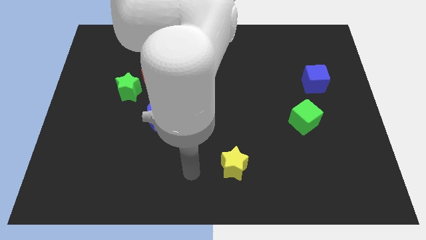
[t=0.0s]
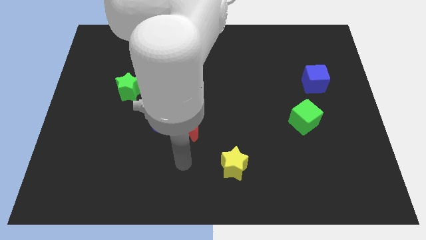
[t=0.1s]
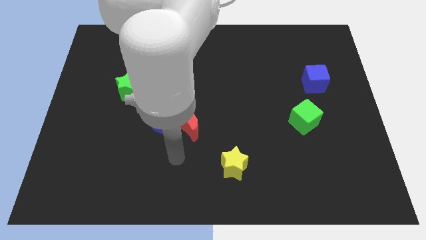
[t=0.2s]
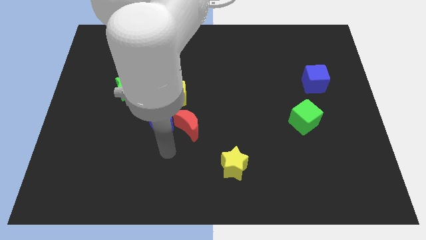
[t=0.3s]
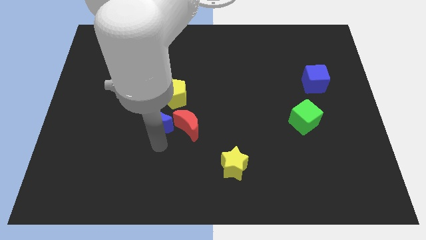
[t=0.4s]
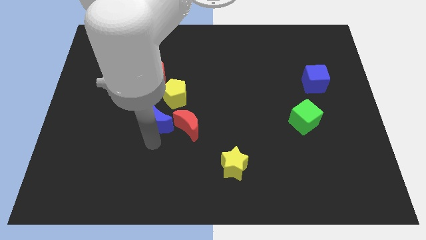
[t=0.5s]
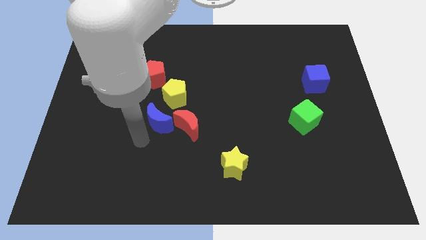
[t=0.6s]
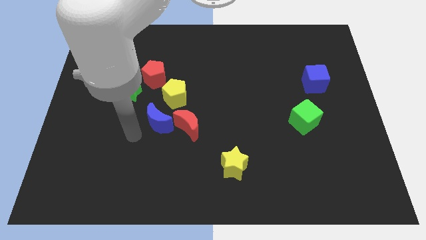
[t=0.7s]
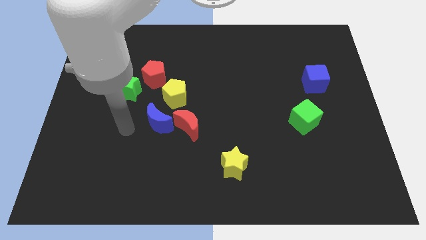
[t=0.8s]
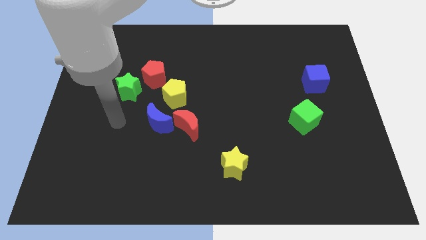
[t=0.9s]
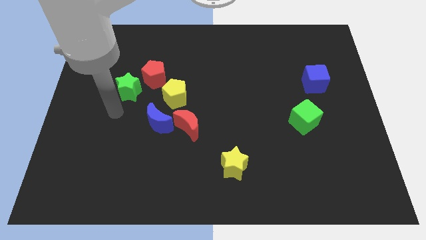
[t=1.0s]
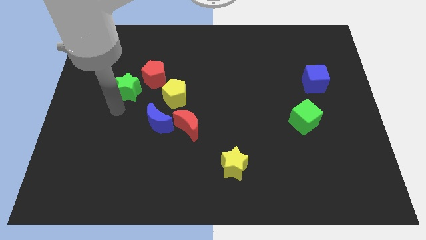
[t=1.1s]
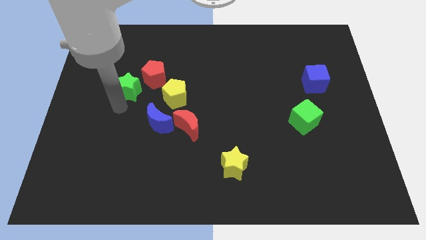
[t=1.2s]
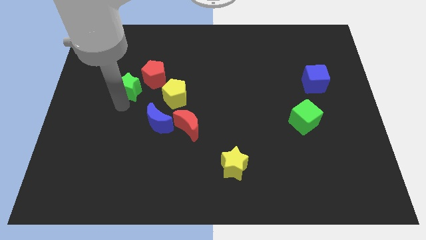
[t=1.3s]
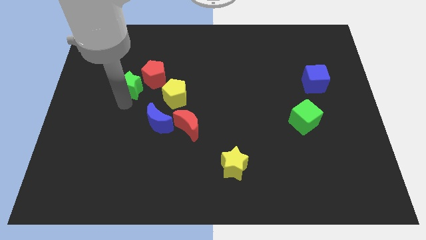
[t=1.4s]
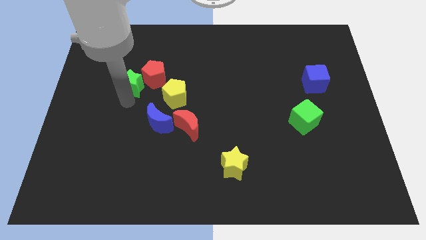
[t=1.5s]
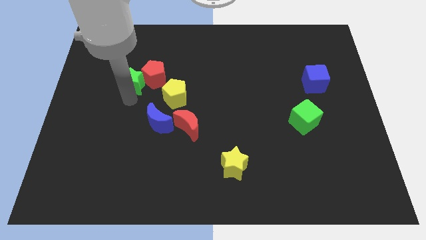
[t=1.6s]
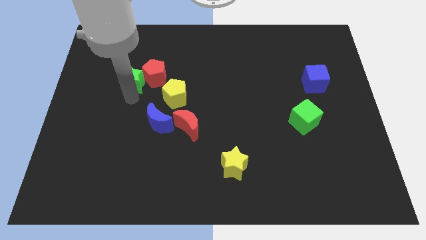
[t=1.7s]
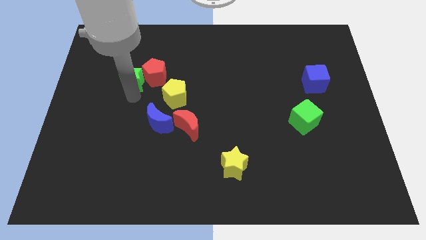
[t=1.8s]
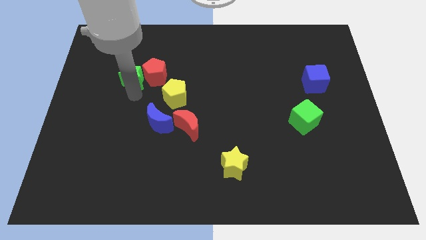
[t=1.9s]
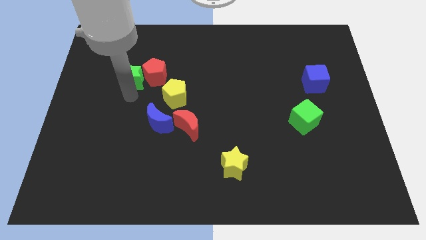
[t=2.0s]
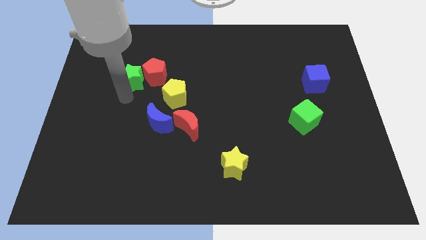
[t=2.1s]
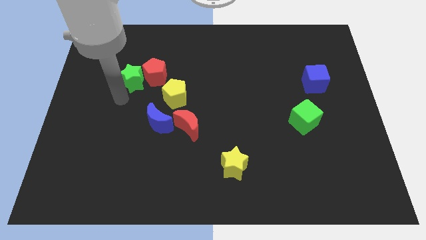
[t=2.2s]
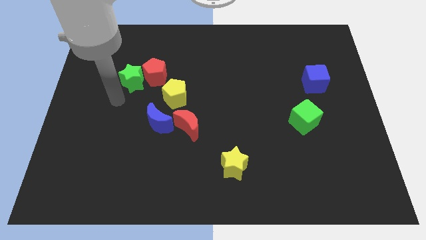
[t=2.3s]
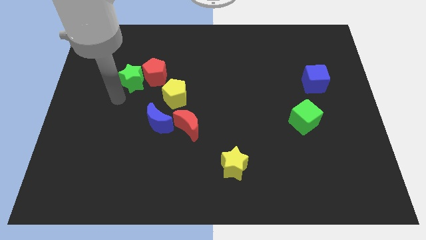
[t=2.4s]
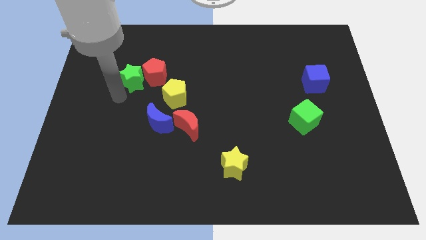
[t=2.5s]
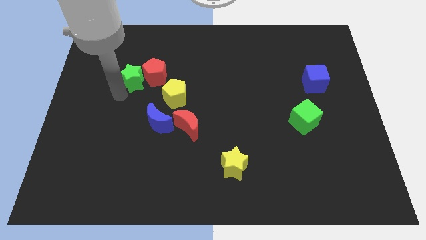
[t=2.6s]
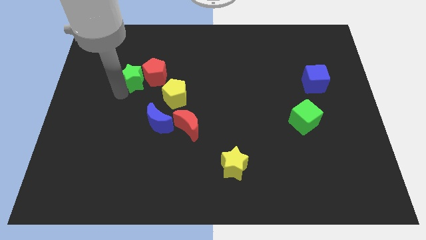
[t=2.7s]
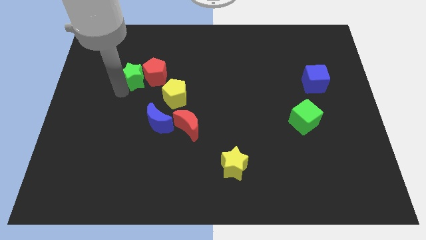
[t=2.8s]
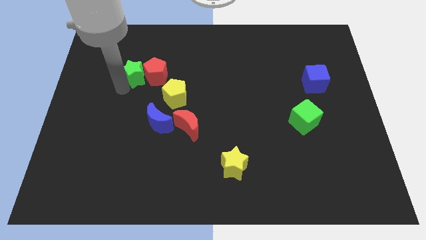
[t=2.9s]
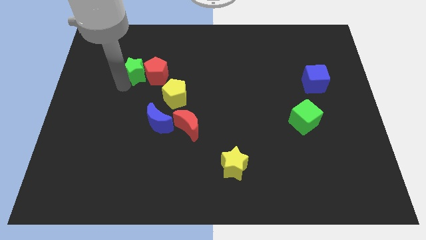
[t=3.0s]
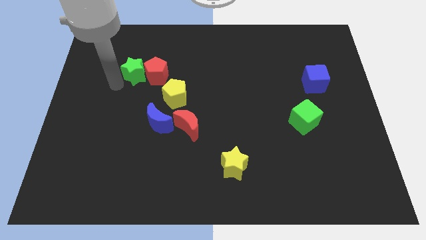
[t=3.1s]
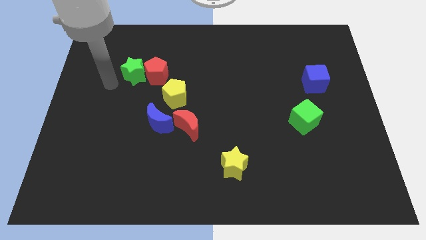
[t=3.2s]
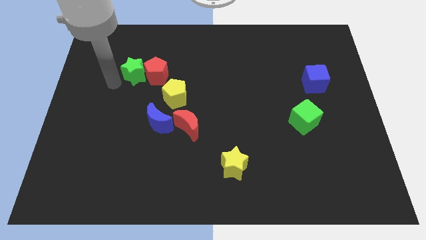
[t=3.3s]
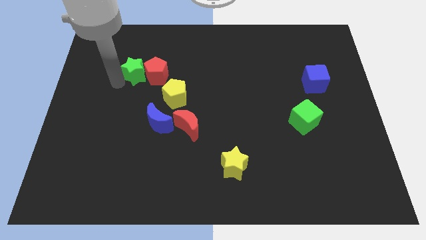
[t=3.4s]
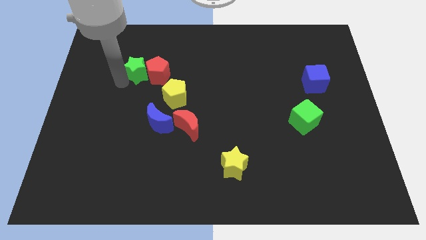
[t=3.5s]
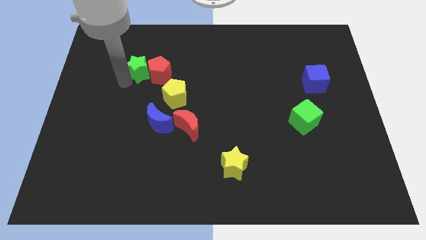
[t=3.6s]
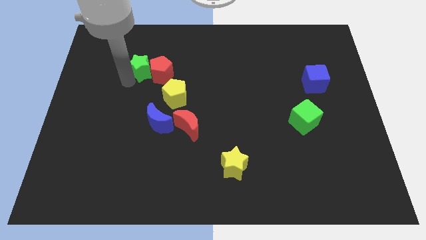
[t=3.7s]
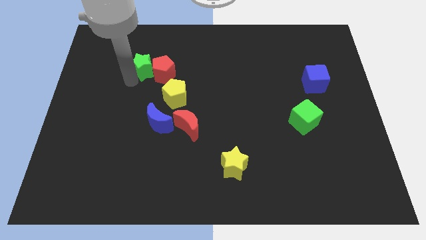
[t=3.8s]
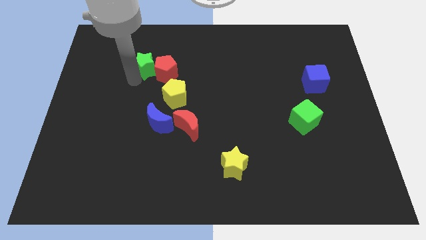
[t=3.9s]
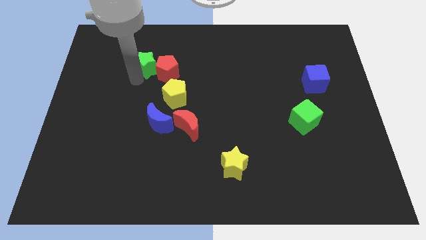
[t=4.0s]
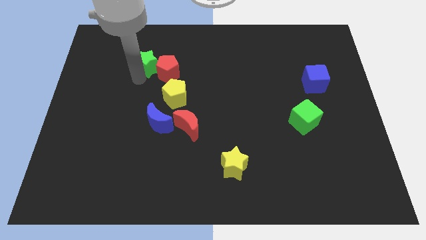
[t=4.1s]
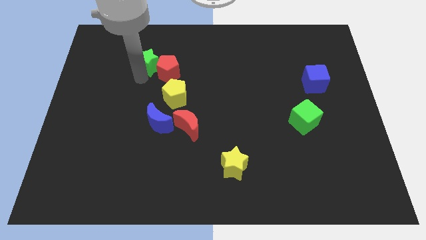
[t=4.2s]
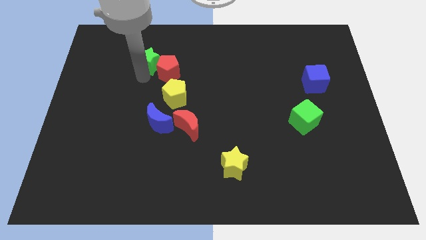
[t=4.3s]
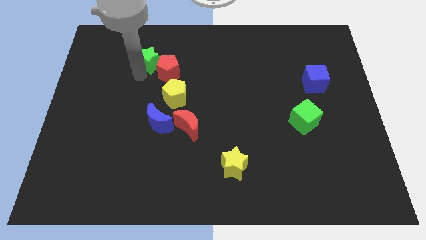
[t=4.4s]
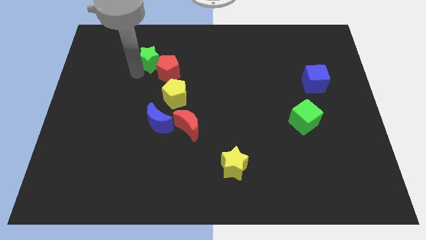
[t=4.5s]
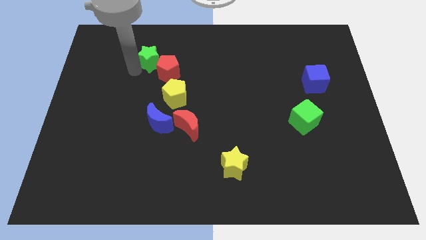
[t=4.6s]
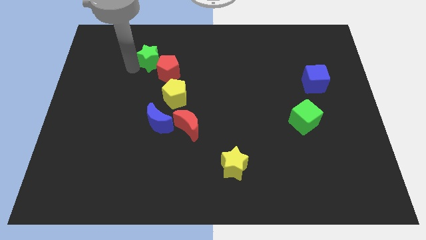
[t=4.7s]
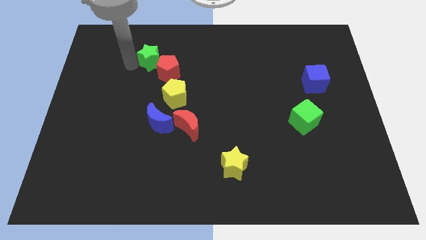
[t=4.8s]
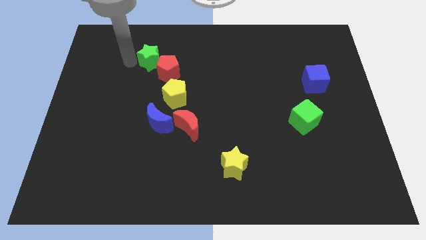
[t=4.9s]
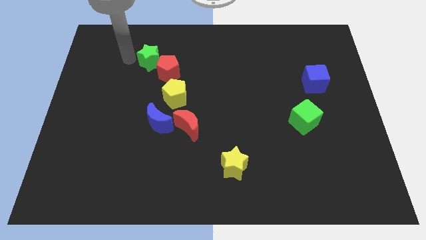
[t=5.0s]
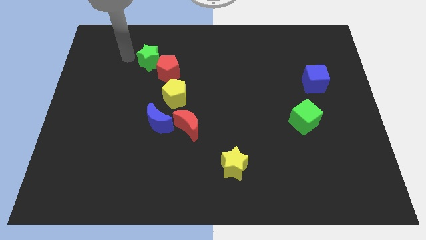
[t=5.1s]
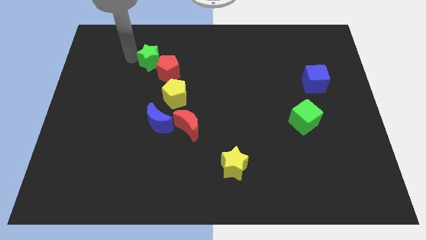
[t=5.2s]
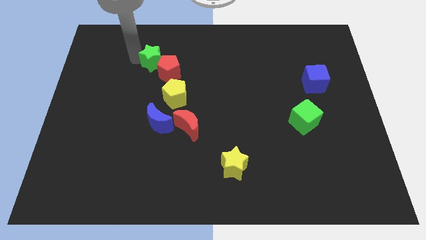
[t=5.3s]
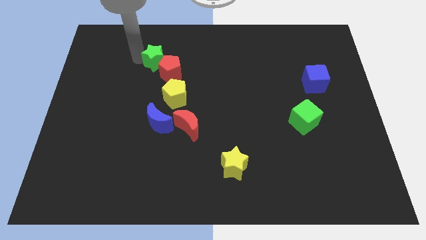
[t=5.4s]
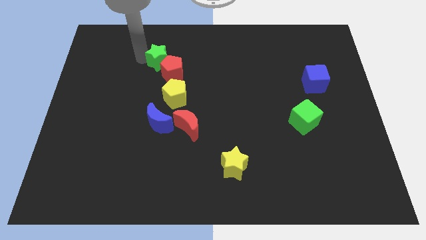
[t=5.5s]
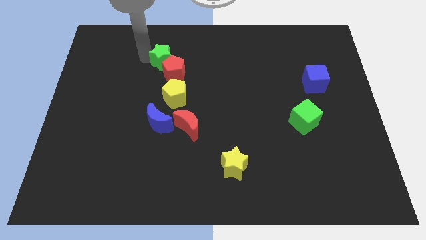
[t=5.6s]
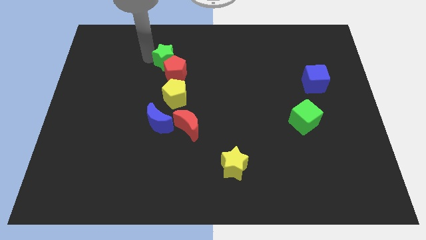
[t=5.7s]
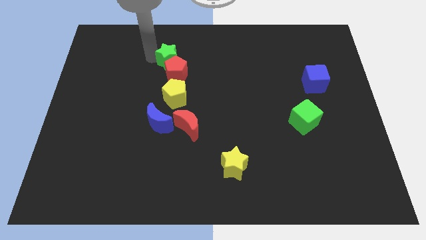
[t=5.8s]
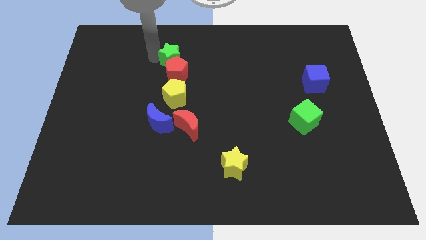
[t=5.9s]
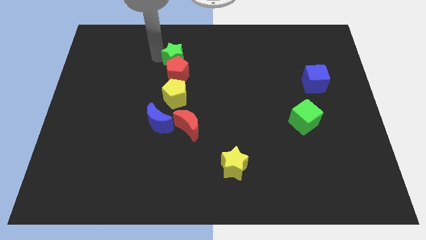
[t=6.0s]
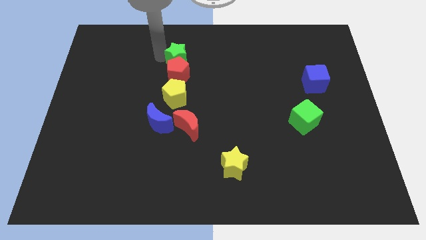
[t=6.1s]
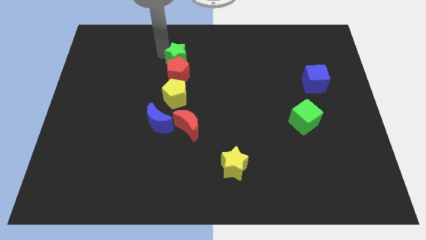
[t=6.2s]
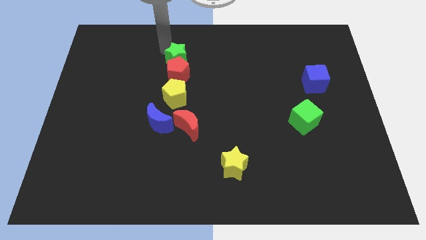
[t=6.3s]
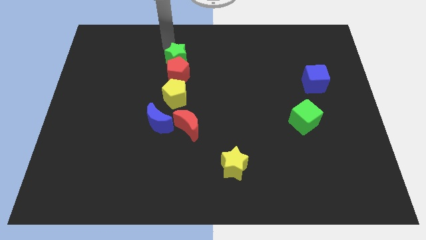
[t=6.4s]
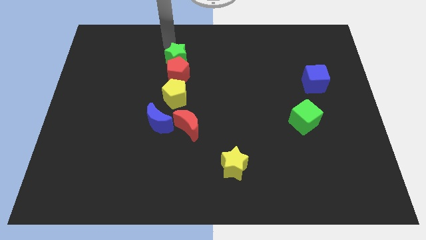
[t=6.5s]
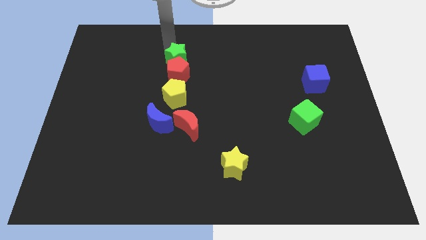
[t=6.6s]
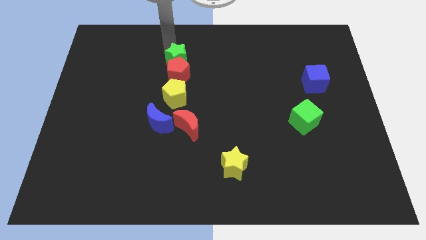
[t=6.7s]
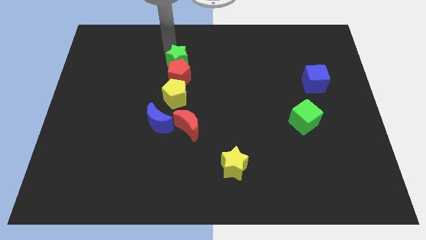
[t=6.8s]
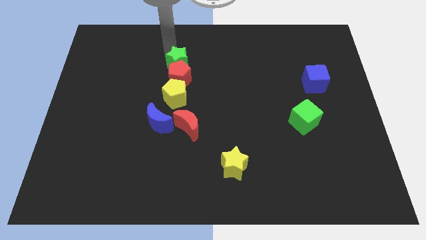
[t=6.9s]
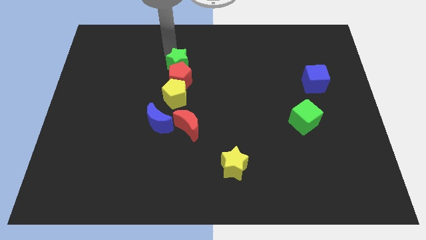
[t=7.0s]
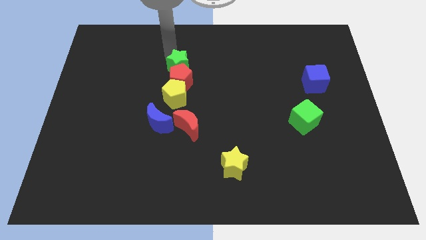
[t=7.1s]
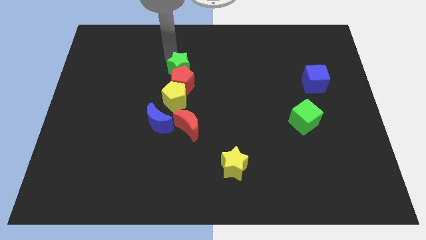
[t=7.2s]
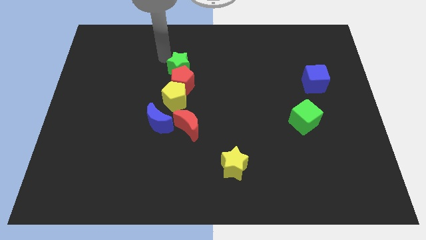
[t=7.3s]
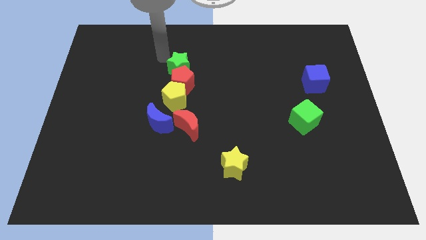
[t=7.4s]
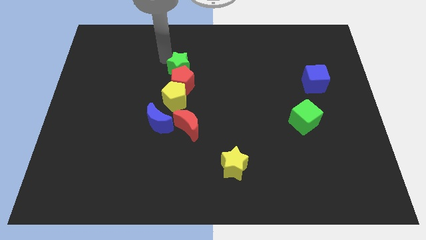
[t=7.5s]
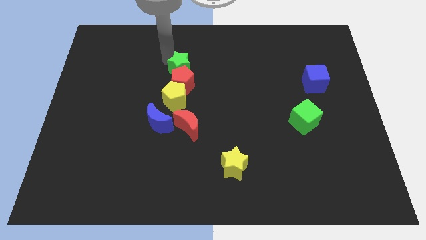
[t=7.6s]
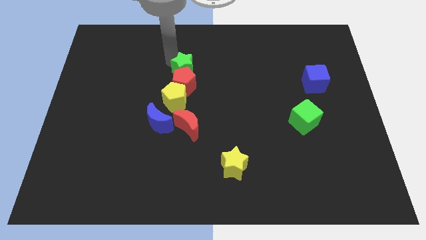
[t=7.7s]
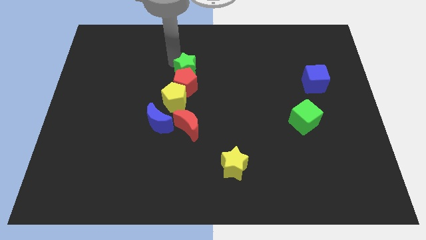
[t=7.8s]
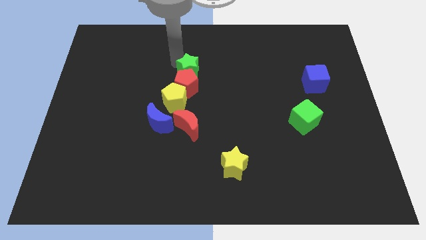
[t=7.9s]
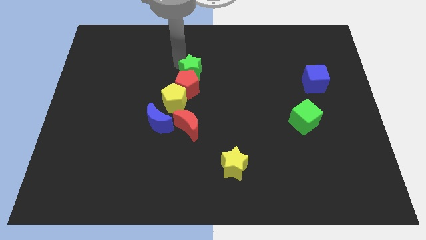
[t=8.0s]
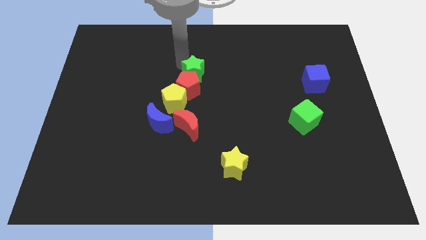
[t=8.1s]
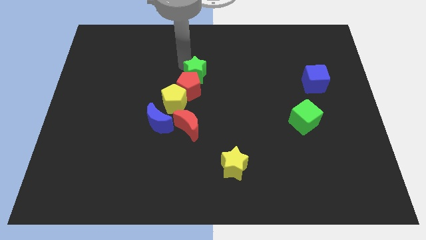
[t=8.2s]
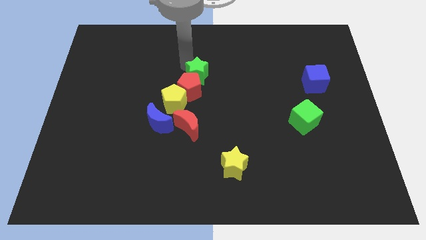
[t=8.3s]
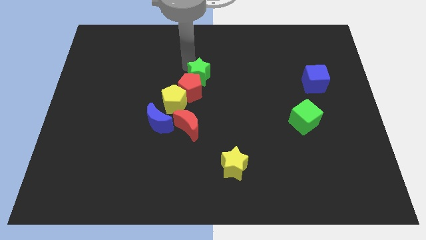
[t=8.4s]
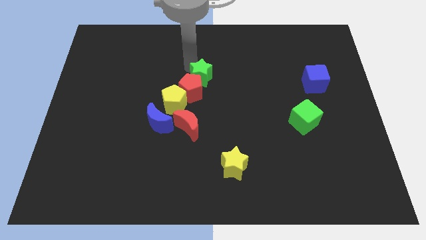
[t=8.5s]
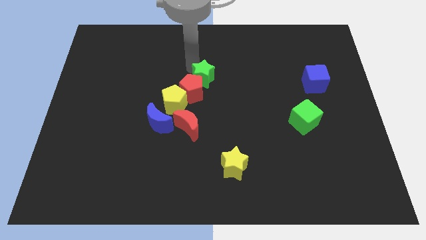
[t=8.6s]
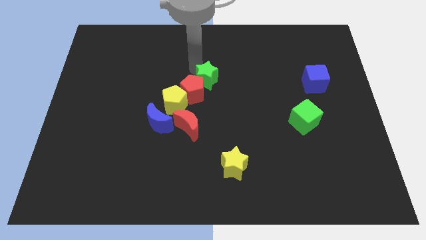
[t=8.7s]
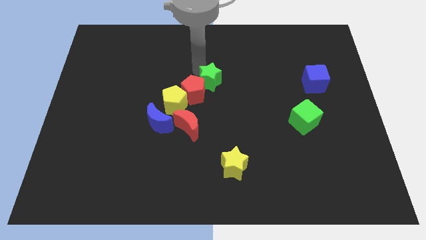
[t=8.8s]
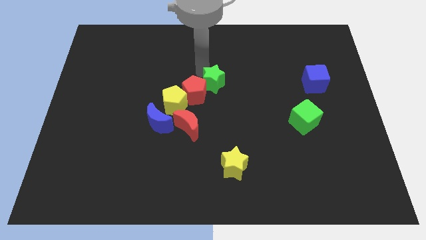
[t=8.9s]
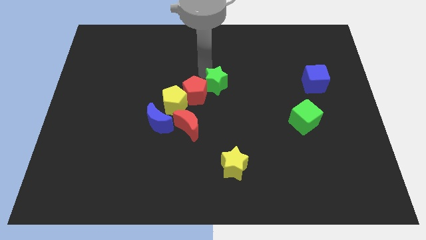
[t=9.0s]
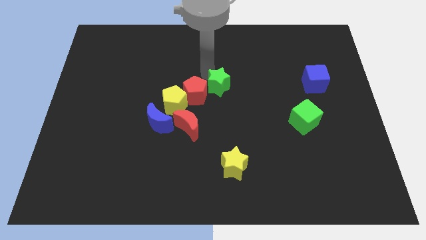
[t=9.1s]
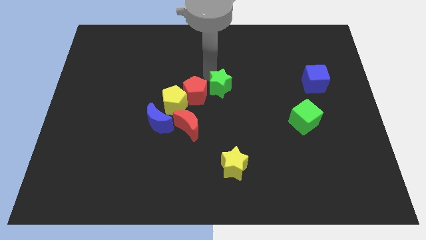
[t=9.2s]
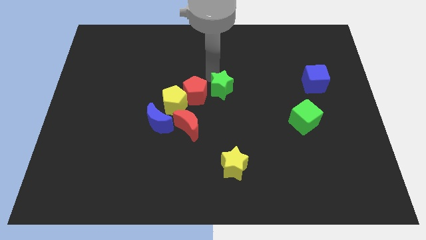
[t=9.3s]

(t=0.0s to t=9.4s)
move the green star to the right side of the yellow pentagon
